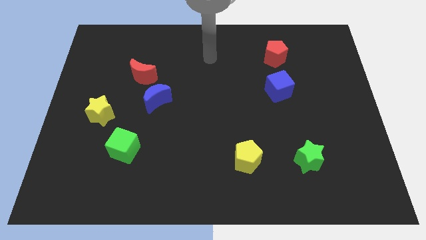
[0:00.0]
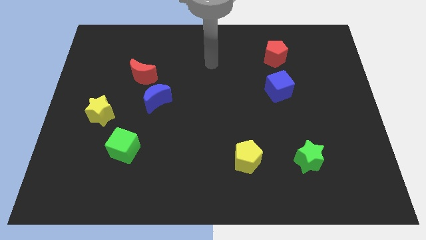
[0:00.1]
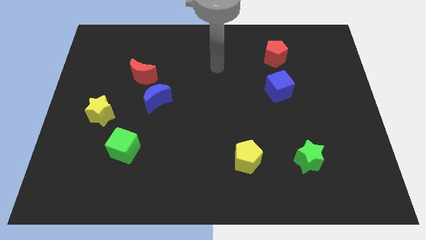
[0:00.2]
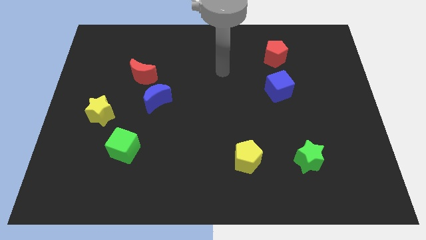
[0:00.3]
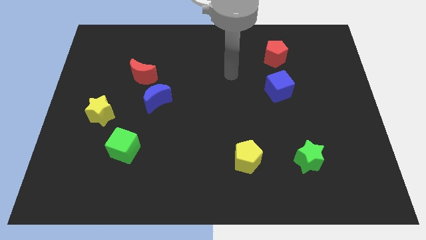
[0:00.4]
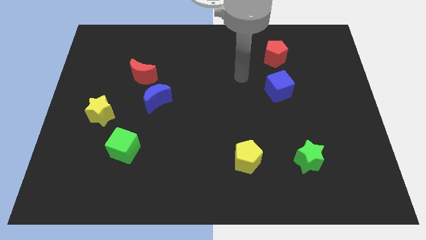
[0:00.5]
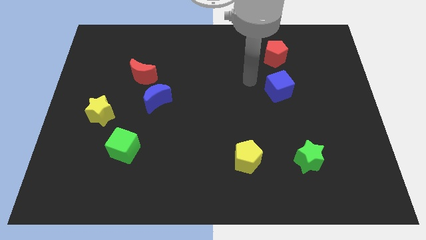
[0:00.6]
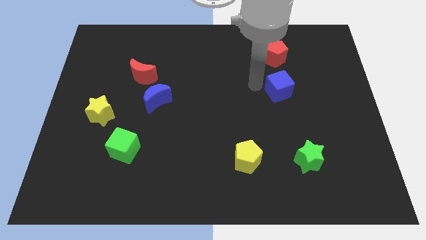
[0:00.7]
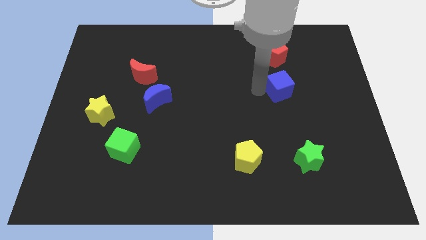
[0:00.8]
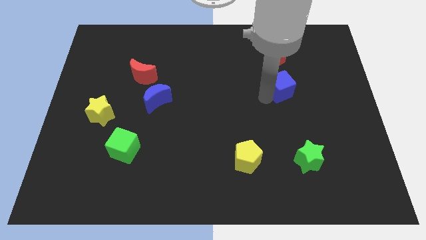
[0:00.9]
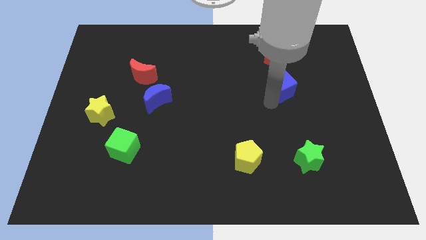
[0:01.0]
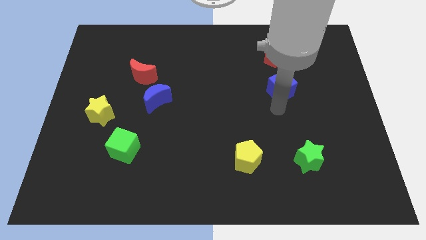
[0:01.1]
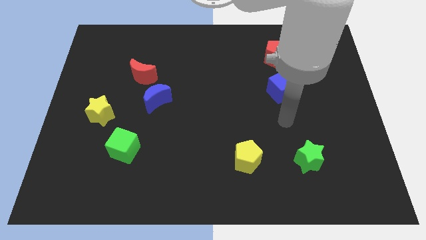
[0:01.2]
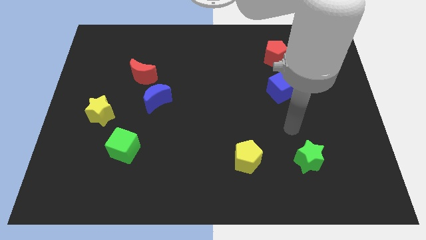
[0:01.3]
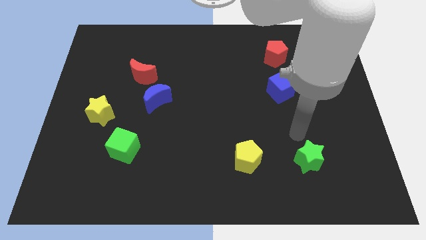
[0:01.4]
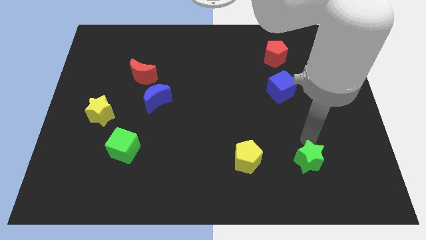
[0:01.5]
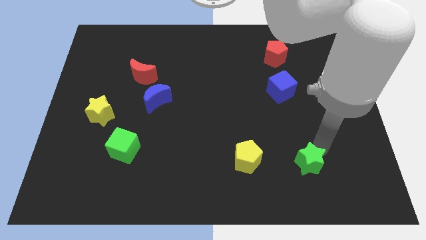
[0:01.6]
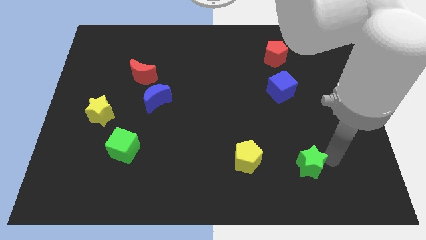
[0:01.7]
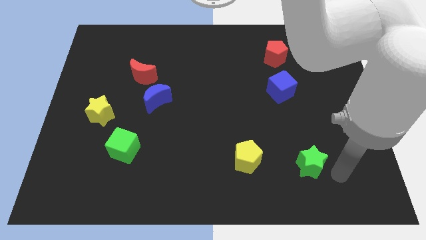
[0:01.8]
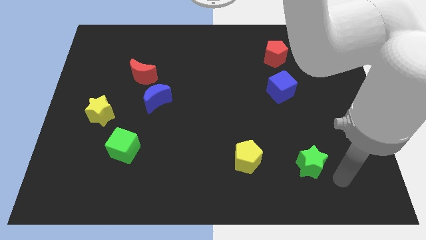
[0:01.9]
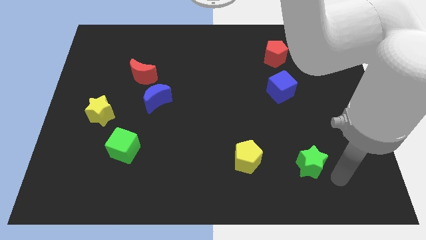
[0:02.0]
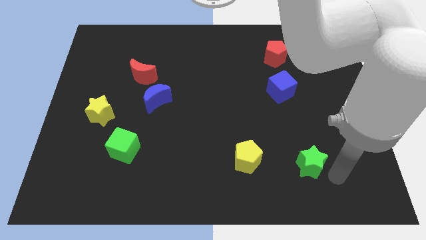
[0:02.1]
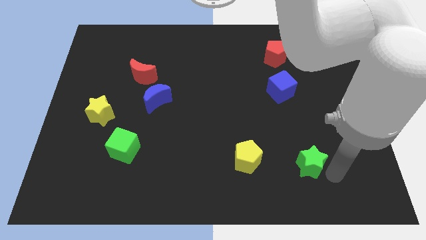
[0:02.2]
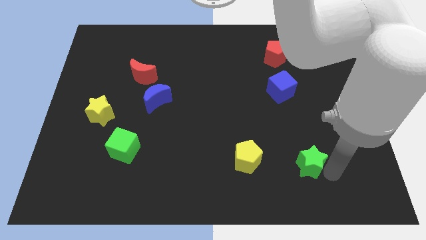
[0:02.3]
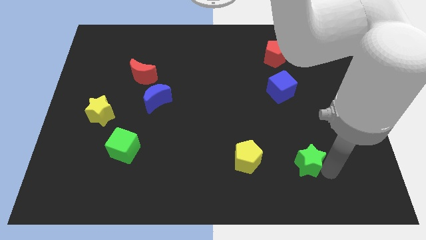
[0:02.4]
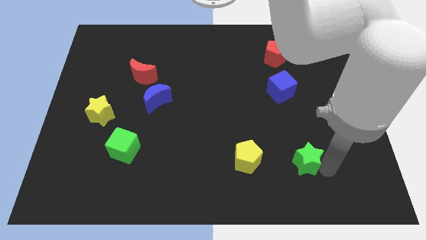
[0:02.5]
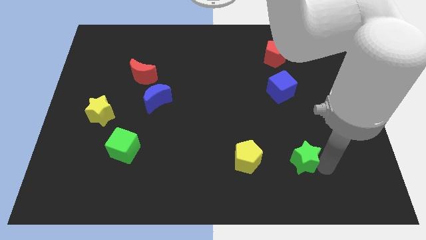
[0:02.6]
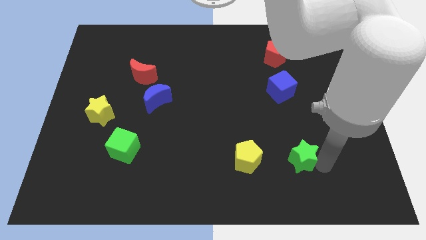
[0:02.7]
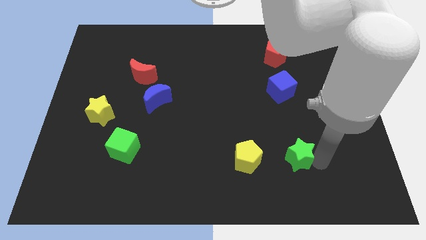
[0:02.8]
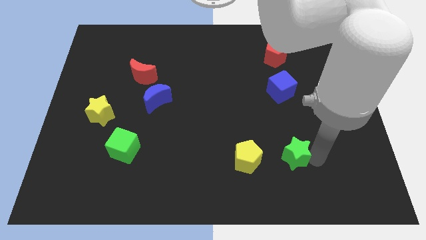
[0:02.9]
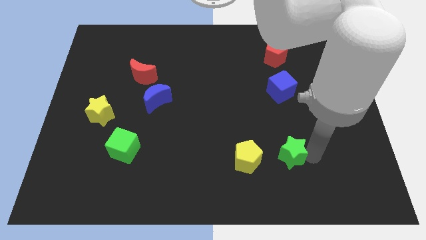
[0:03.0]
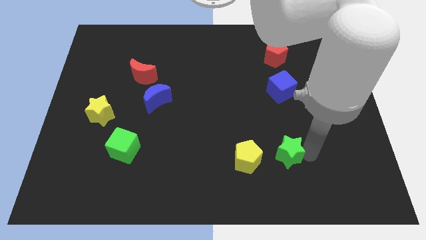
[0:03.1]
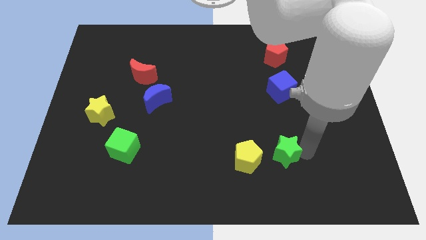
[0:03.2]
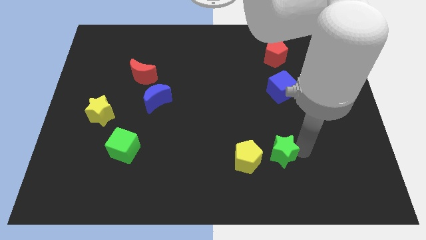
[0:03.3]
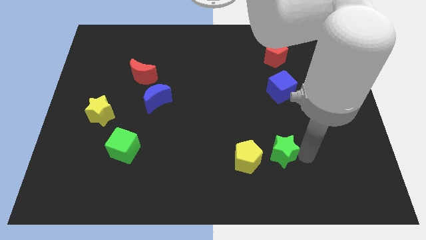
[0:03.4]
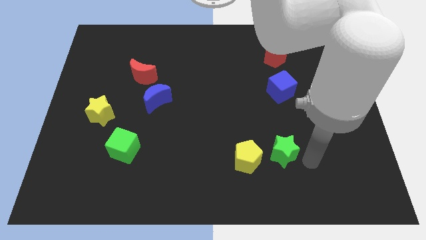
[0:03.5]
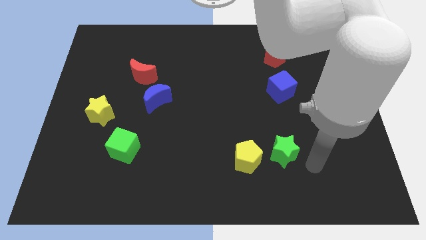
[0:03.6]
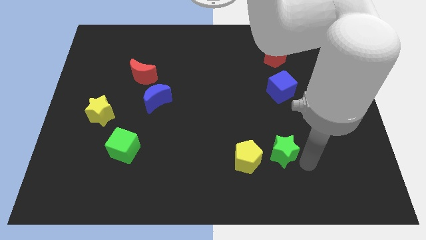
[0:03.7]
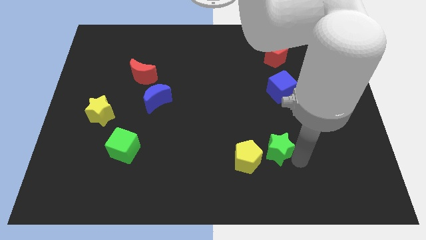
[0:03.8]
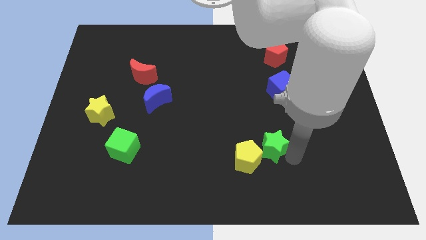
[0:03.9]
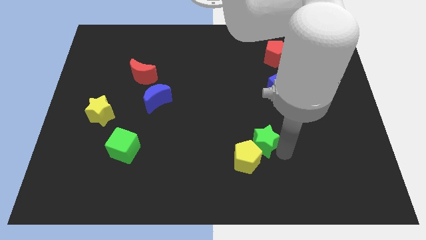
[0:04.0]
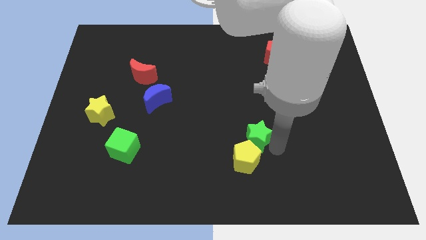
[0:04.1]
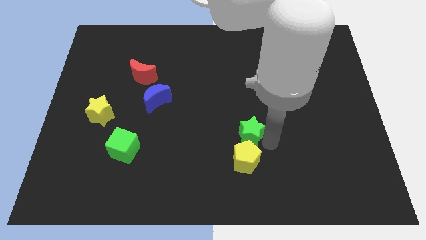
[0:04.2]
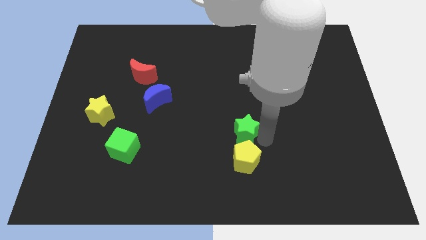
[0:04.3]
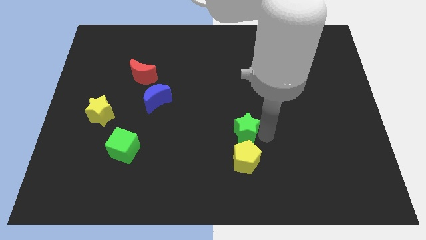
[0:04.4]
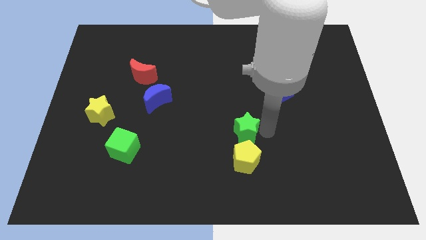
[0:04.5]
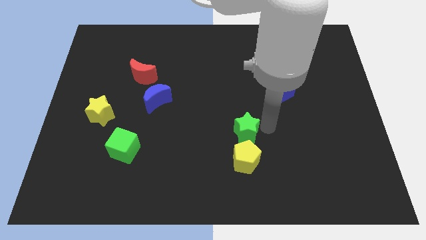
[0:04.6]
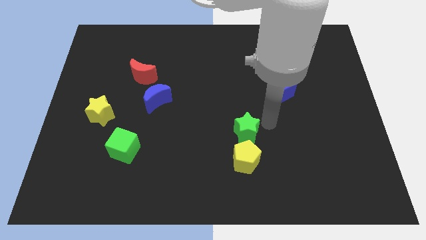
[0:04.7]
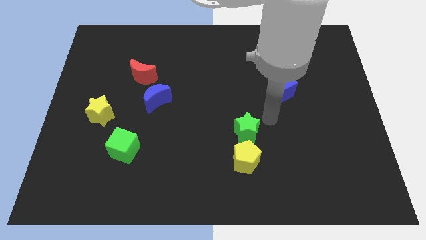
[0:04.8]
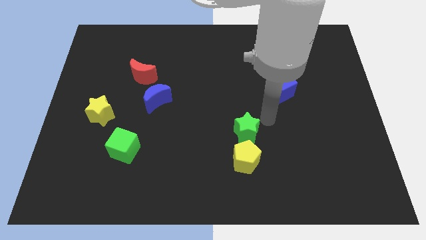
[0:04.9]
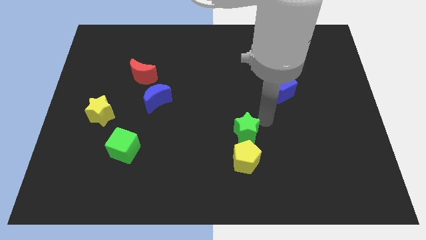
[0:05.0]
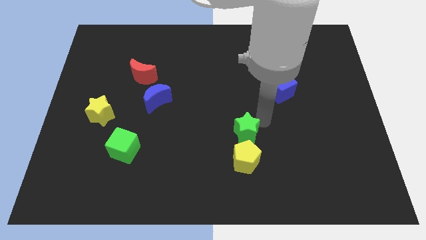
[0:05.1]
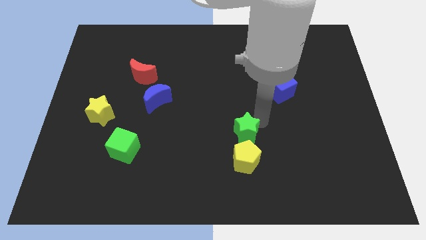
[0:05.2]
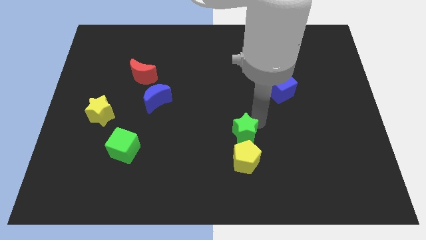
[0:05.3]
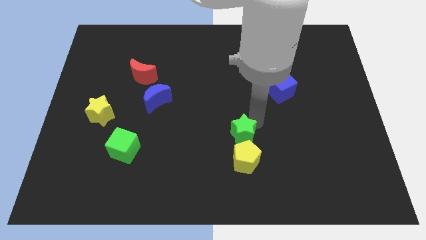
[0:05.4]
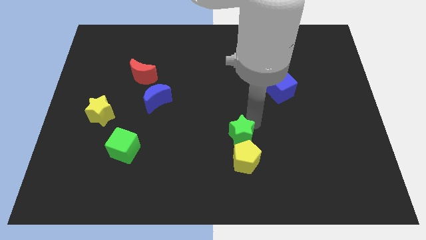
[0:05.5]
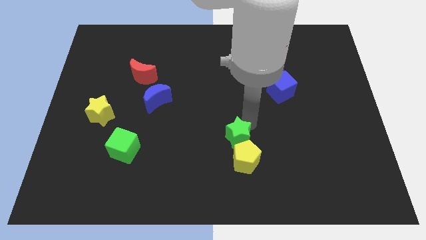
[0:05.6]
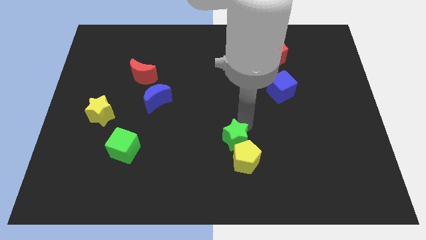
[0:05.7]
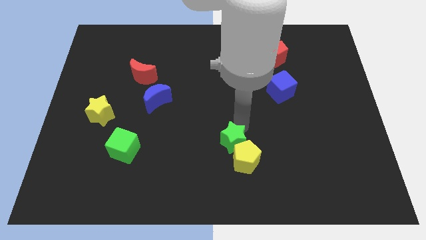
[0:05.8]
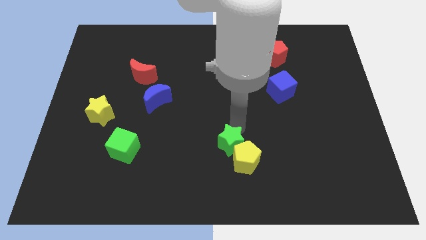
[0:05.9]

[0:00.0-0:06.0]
move the green star just left of the yellow pentagon

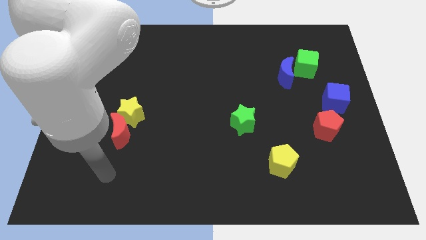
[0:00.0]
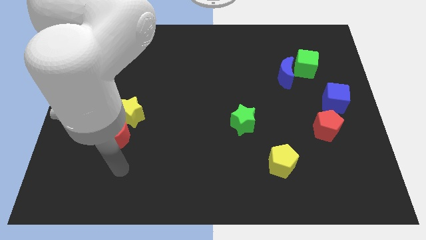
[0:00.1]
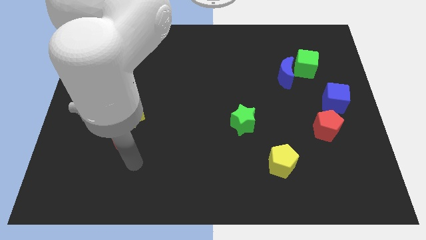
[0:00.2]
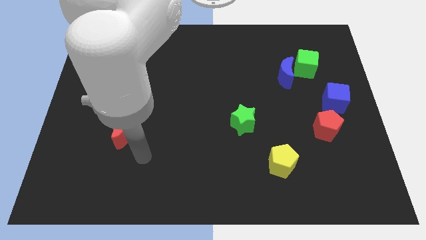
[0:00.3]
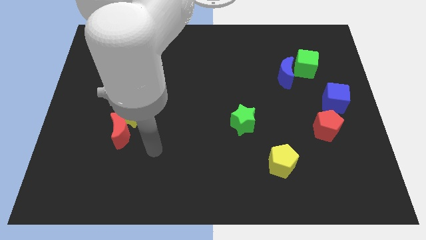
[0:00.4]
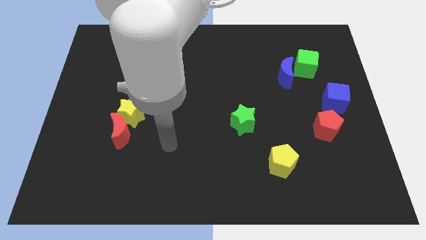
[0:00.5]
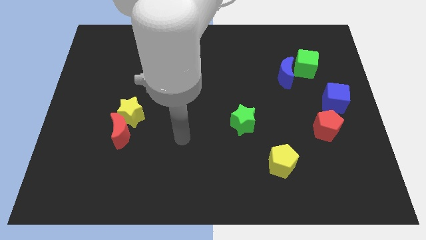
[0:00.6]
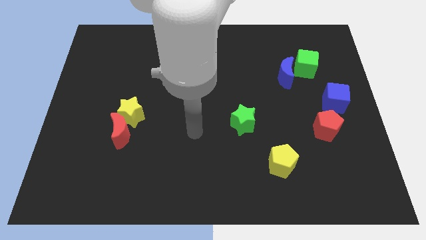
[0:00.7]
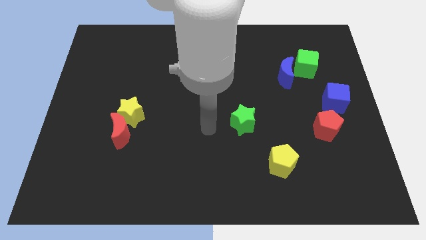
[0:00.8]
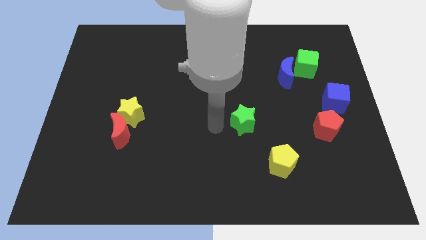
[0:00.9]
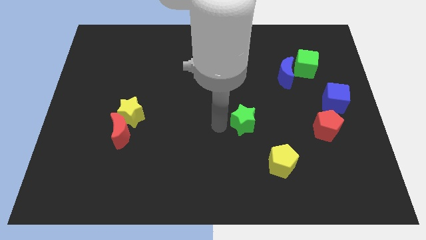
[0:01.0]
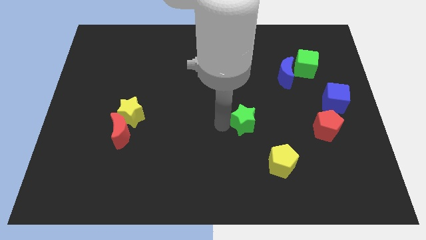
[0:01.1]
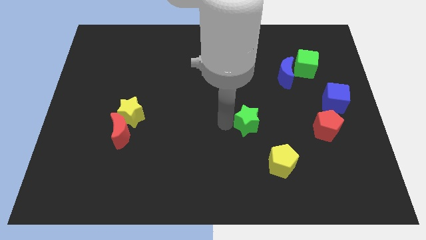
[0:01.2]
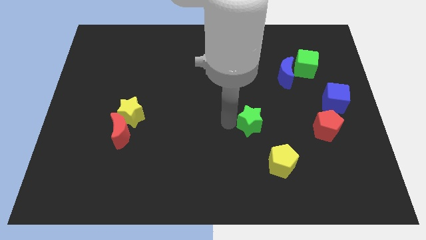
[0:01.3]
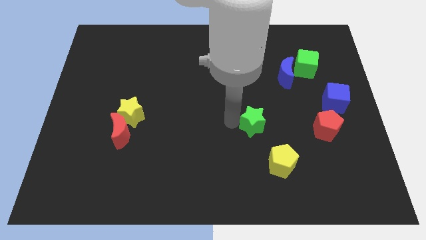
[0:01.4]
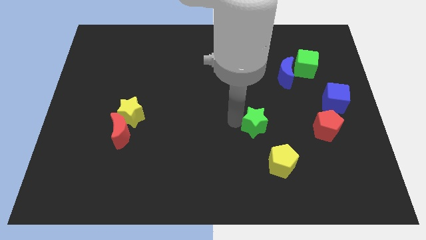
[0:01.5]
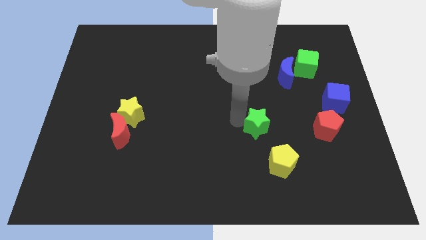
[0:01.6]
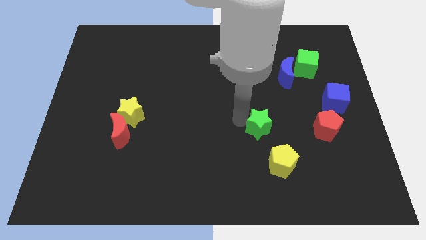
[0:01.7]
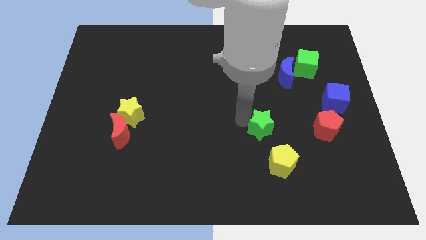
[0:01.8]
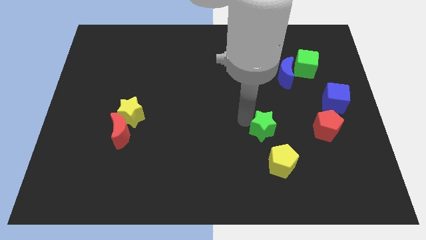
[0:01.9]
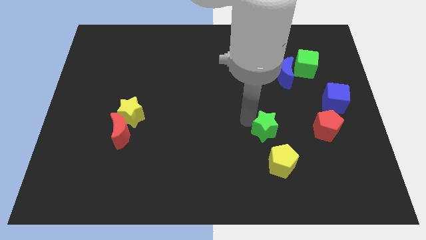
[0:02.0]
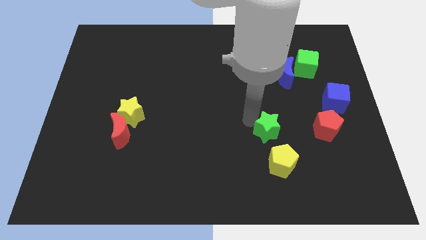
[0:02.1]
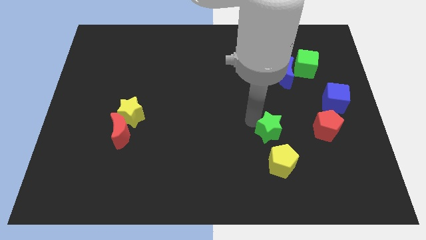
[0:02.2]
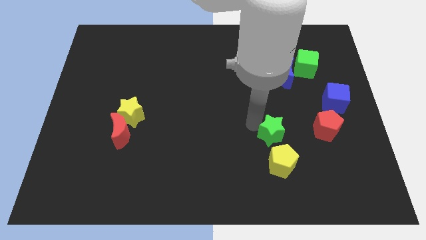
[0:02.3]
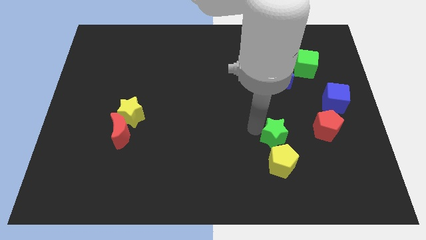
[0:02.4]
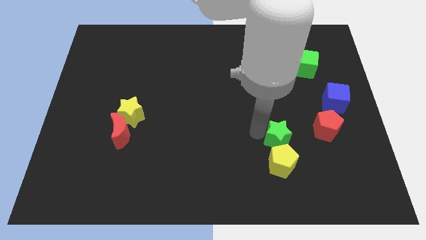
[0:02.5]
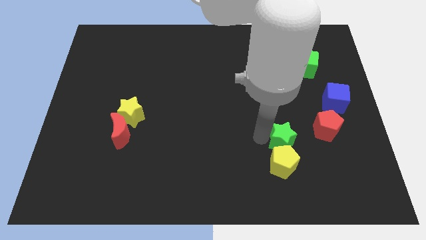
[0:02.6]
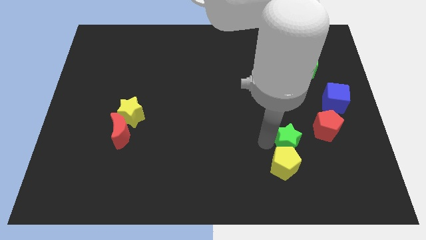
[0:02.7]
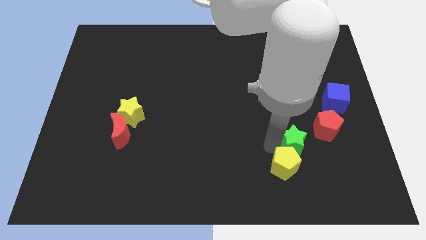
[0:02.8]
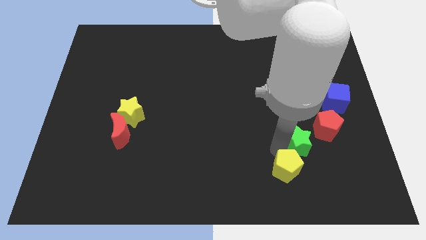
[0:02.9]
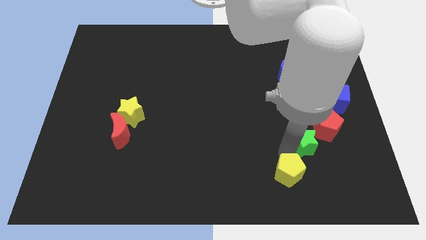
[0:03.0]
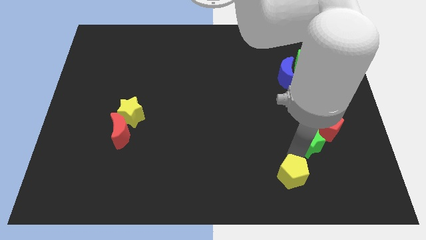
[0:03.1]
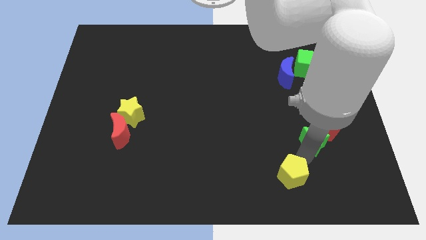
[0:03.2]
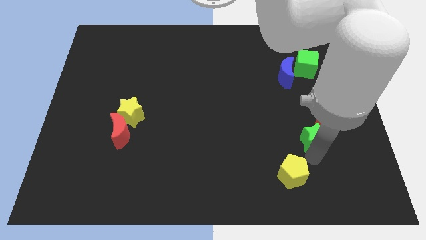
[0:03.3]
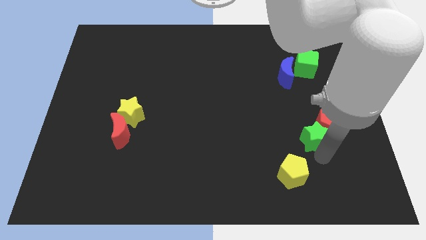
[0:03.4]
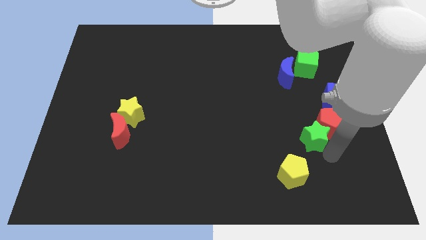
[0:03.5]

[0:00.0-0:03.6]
move the green star diagonally down and to the left of the blue cube
